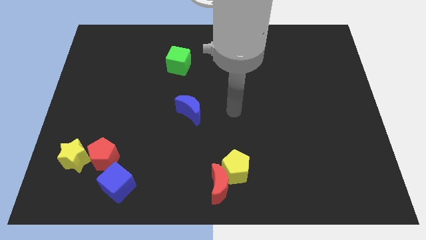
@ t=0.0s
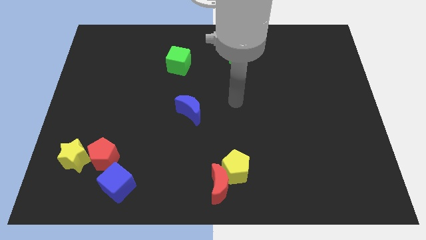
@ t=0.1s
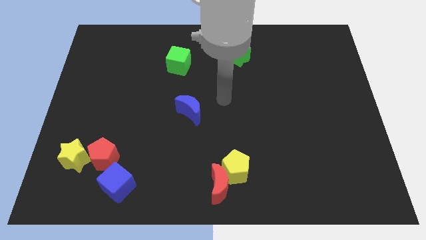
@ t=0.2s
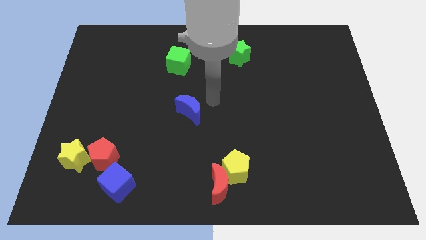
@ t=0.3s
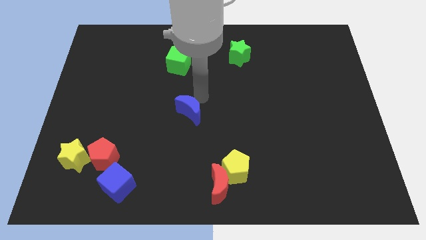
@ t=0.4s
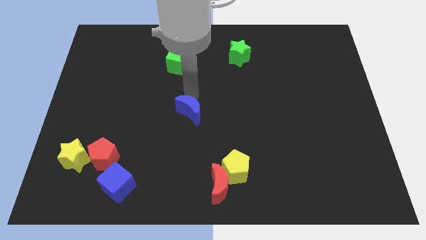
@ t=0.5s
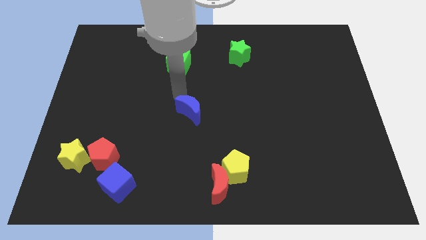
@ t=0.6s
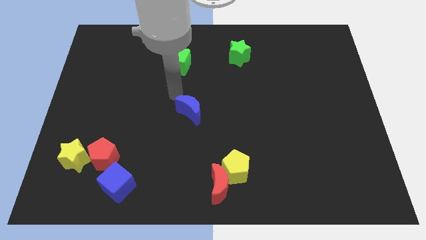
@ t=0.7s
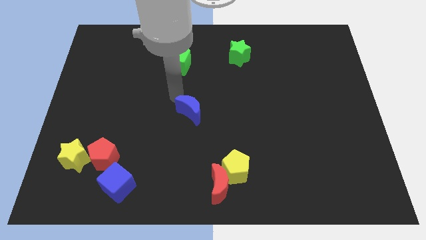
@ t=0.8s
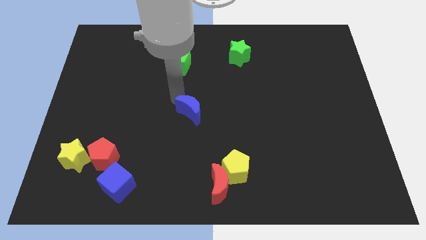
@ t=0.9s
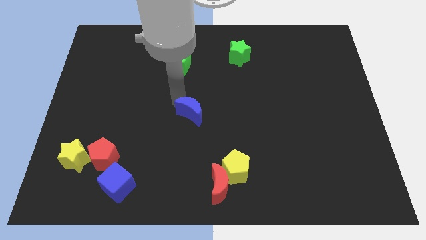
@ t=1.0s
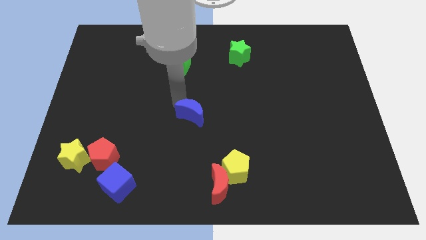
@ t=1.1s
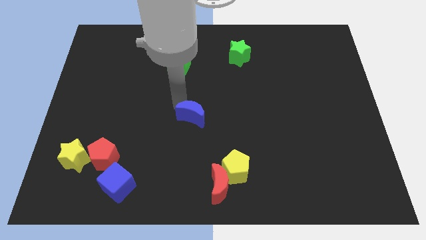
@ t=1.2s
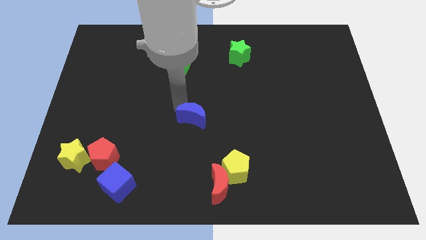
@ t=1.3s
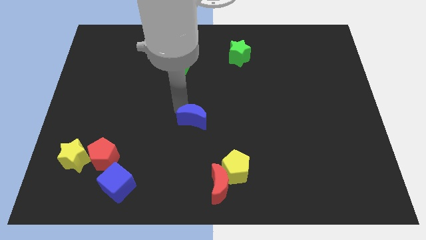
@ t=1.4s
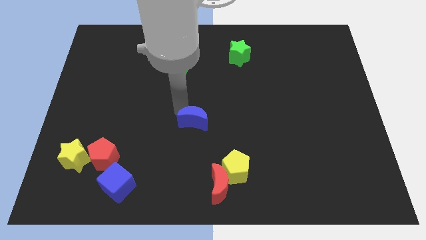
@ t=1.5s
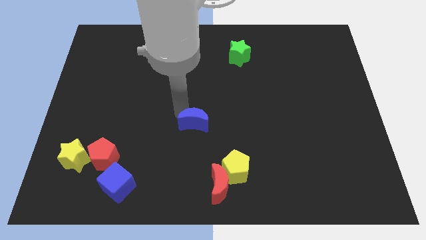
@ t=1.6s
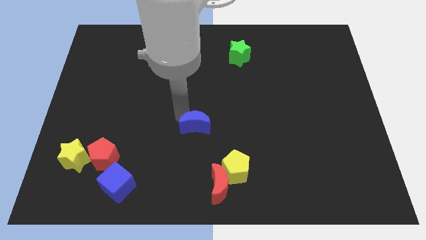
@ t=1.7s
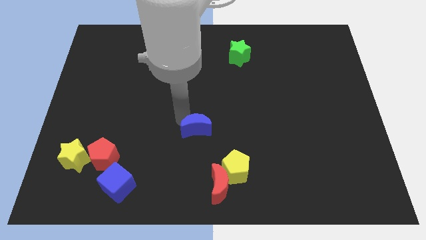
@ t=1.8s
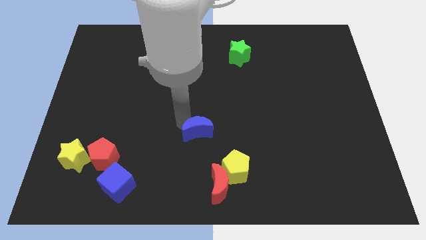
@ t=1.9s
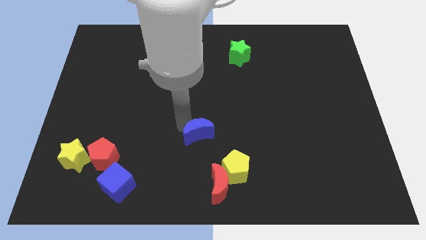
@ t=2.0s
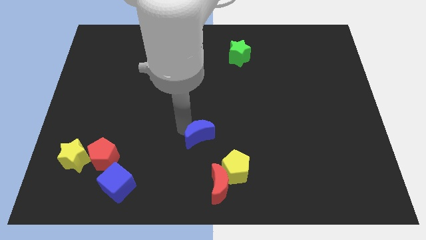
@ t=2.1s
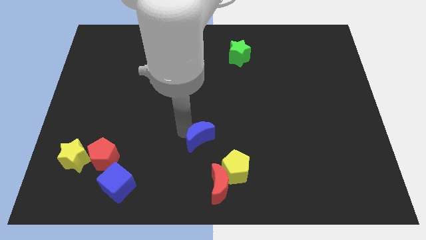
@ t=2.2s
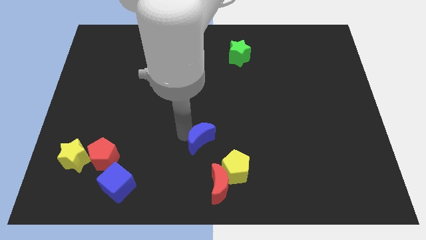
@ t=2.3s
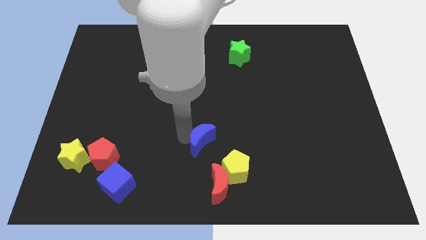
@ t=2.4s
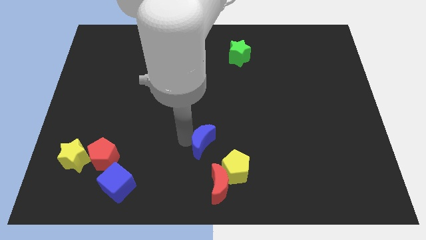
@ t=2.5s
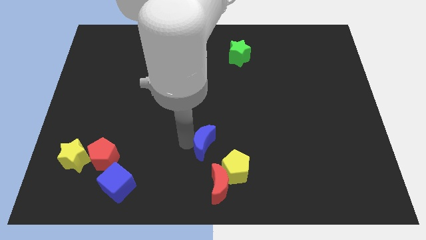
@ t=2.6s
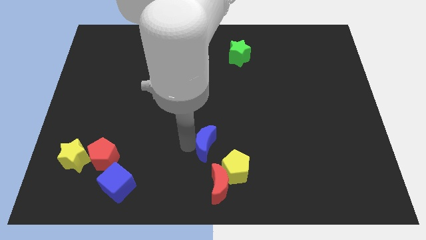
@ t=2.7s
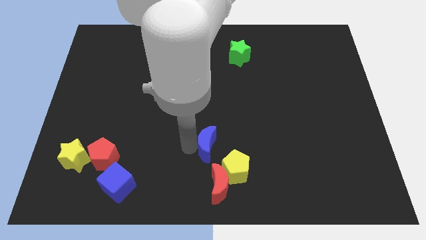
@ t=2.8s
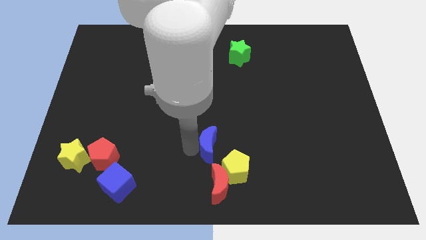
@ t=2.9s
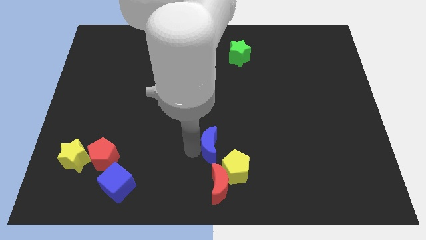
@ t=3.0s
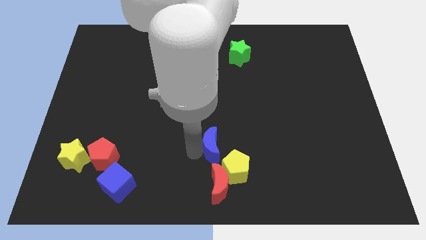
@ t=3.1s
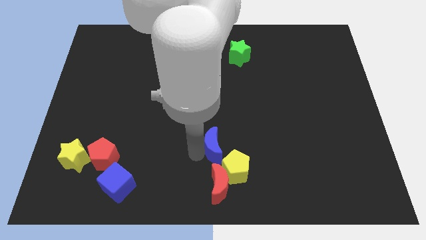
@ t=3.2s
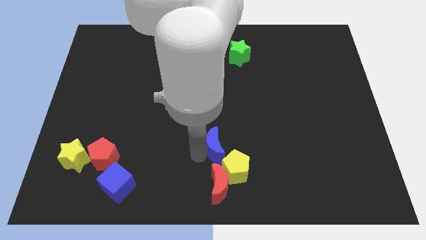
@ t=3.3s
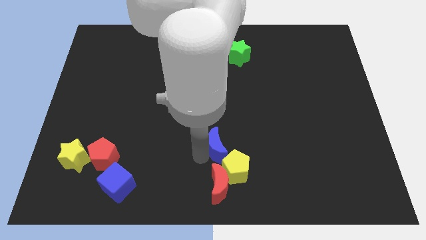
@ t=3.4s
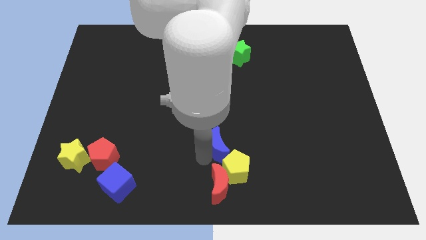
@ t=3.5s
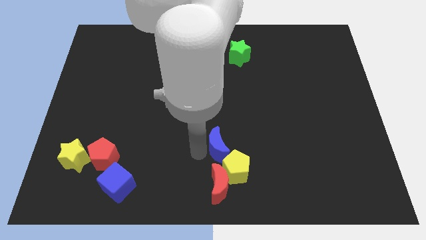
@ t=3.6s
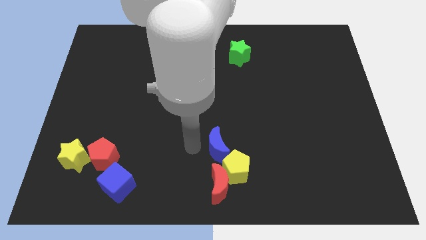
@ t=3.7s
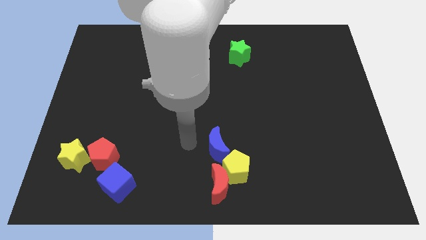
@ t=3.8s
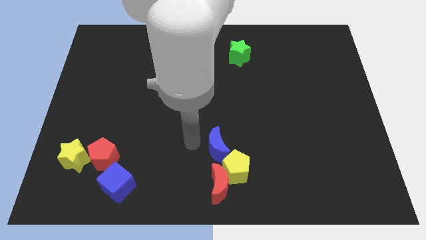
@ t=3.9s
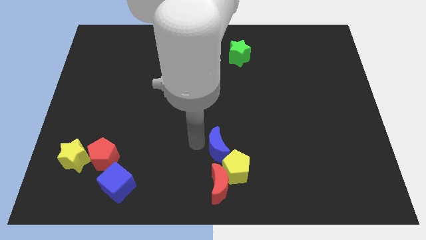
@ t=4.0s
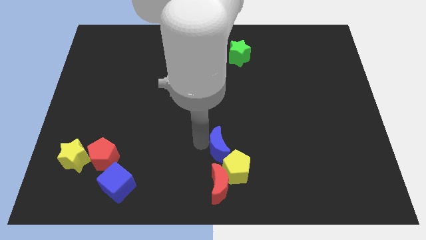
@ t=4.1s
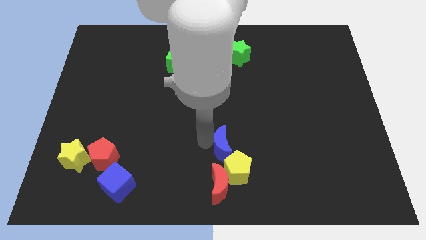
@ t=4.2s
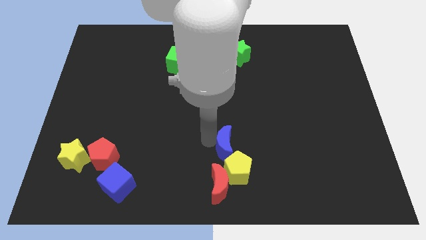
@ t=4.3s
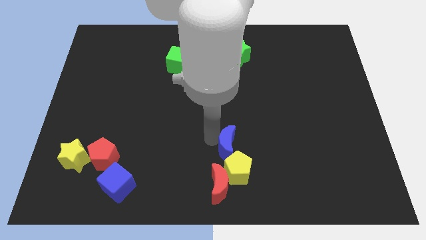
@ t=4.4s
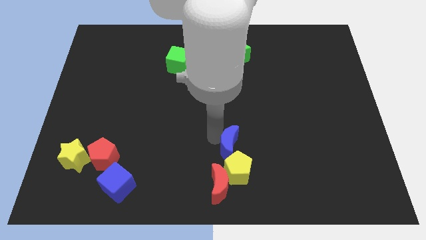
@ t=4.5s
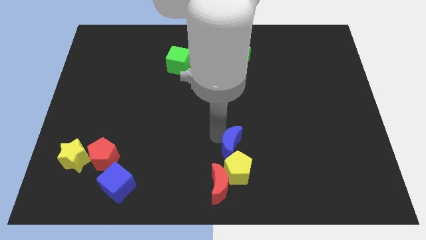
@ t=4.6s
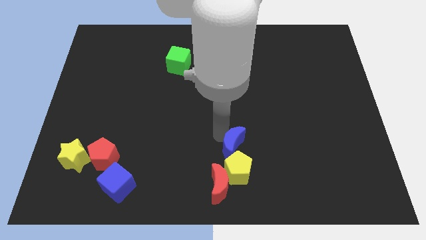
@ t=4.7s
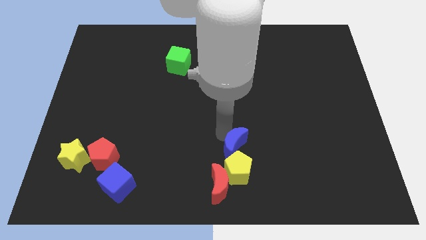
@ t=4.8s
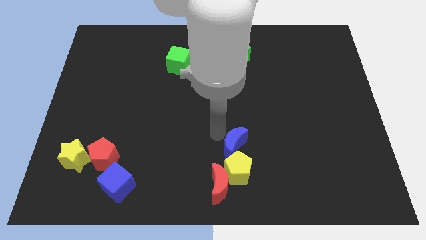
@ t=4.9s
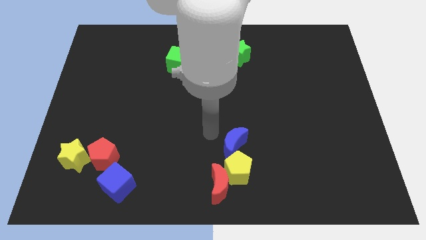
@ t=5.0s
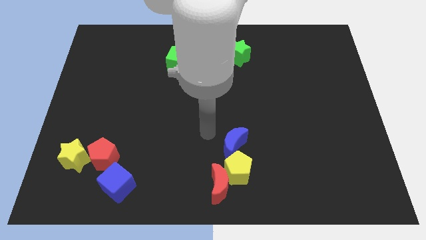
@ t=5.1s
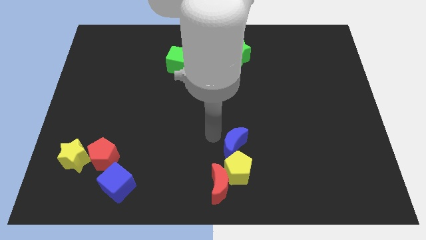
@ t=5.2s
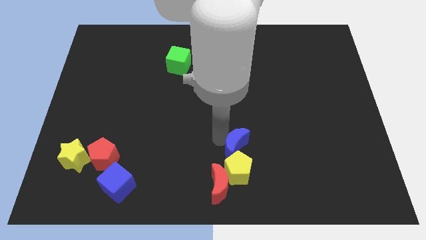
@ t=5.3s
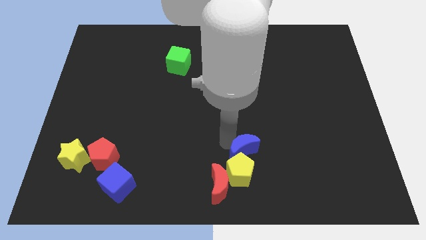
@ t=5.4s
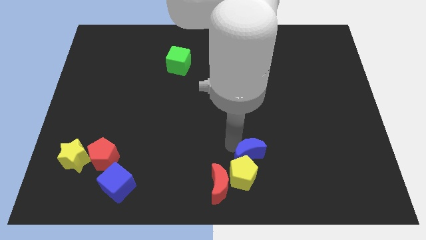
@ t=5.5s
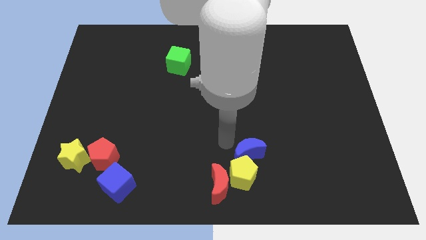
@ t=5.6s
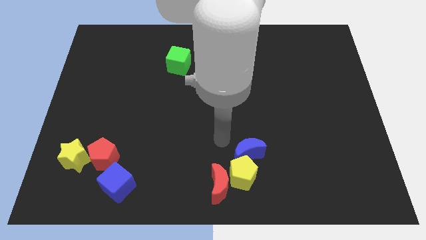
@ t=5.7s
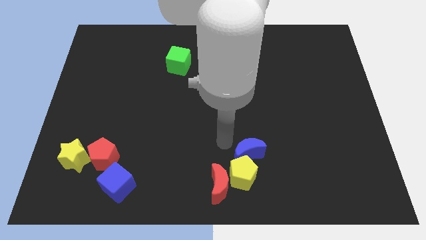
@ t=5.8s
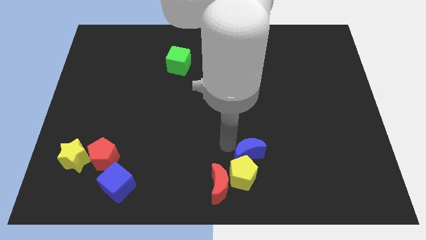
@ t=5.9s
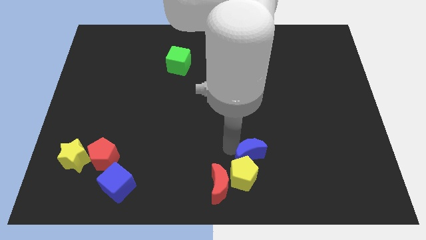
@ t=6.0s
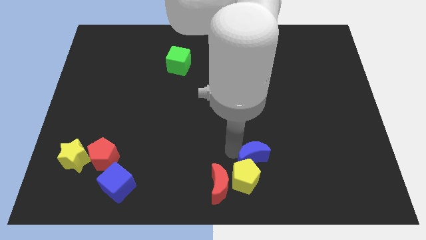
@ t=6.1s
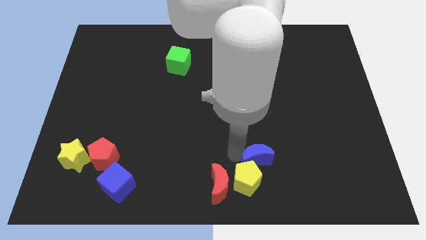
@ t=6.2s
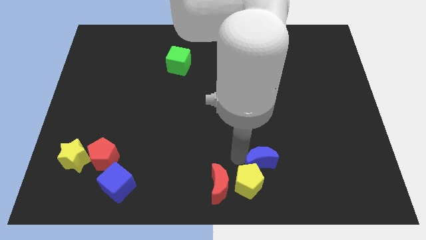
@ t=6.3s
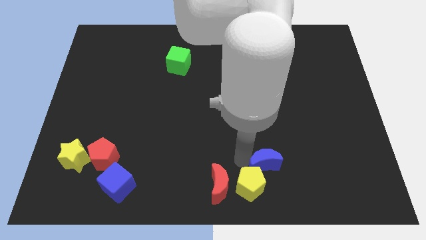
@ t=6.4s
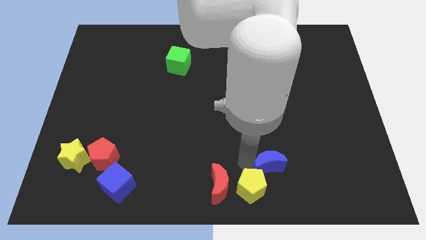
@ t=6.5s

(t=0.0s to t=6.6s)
move the blue moon just right of the yellow pentagon

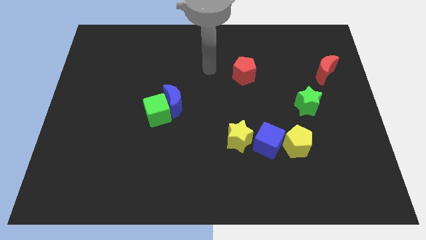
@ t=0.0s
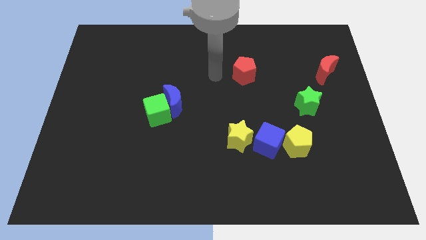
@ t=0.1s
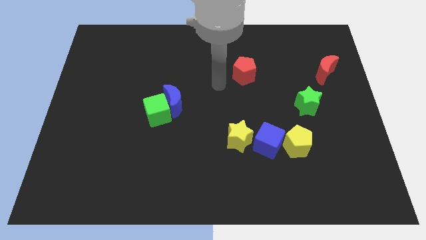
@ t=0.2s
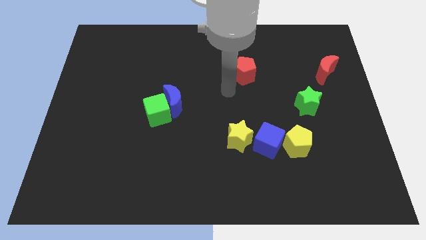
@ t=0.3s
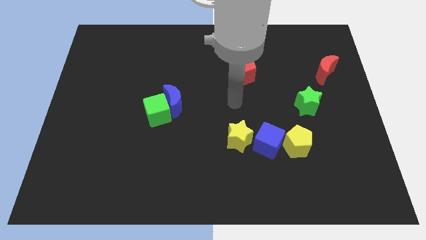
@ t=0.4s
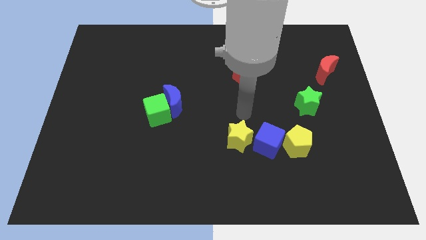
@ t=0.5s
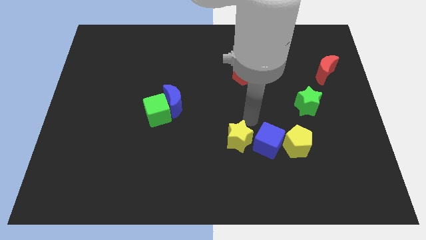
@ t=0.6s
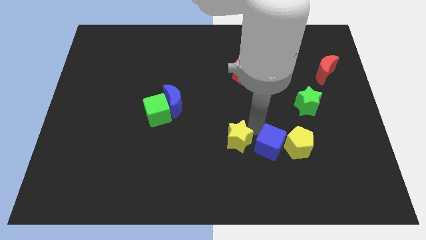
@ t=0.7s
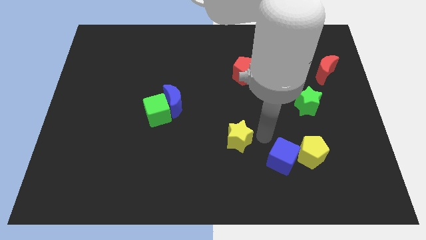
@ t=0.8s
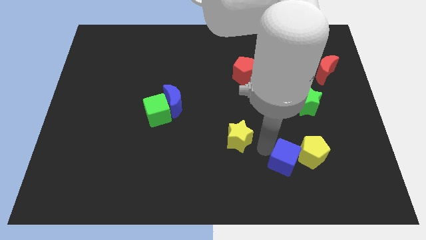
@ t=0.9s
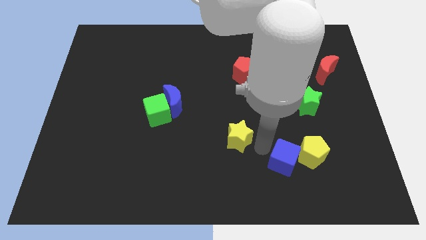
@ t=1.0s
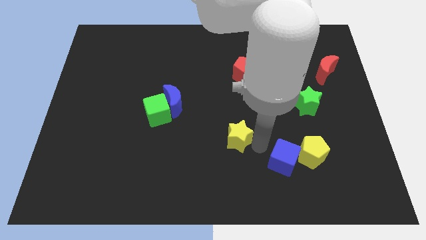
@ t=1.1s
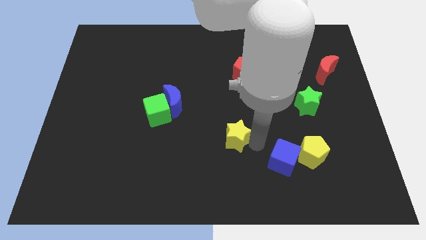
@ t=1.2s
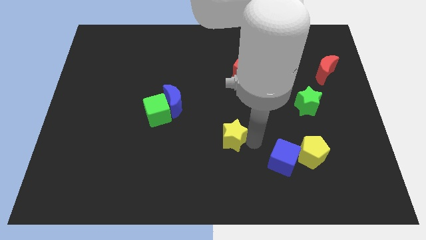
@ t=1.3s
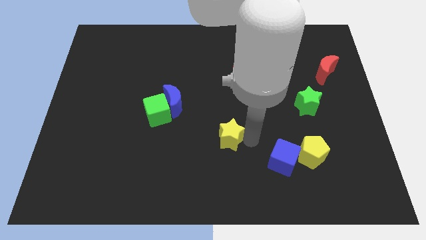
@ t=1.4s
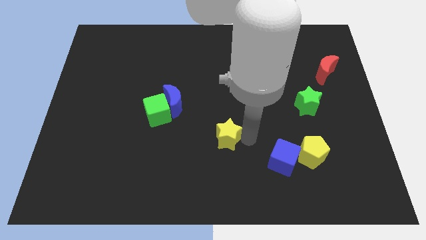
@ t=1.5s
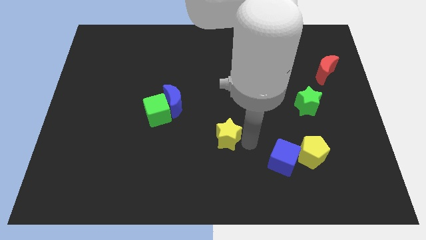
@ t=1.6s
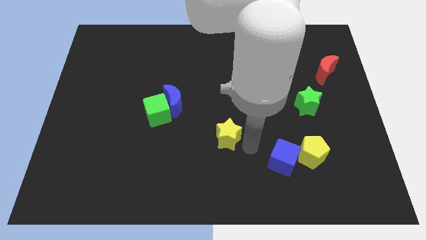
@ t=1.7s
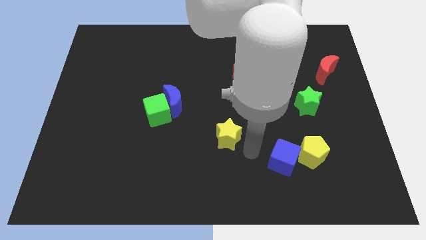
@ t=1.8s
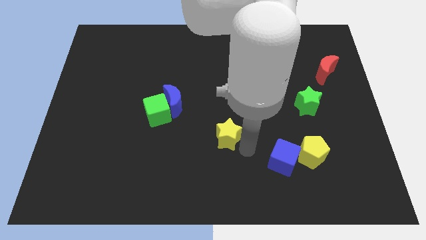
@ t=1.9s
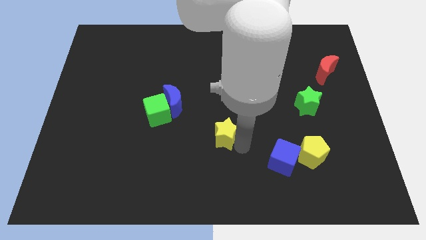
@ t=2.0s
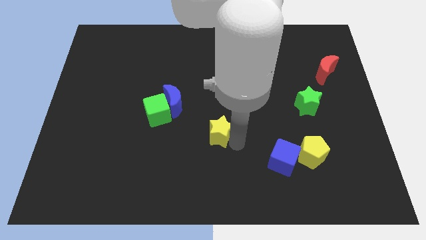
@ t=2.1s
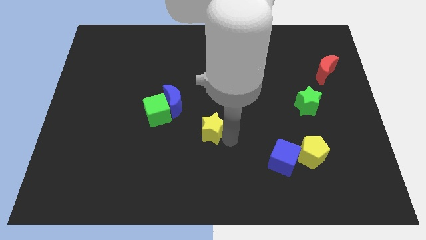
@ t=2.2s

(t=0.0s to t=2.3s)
push the yellow star diagonally down and to the right of the blue moon
